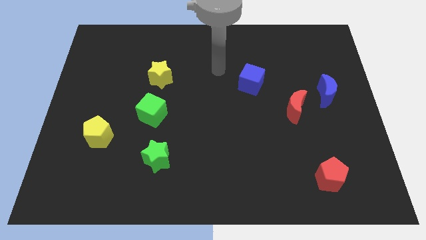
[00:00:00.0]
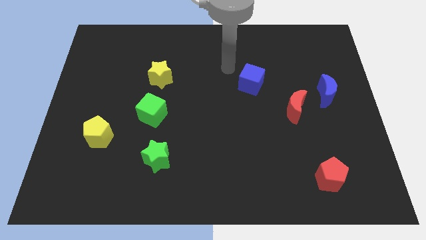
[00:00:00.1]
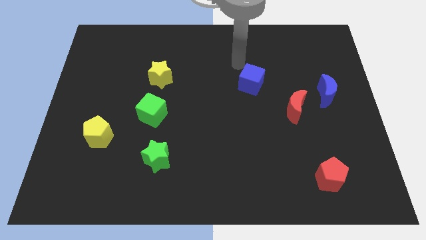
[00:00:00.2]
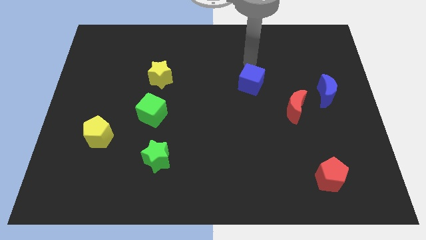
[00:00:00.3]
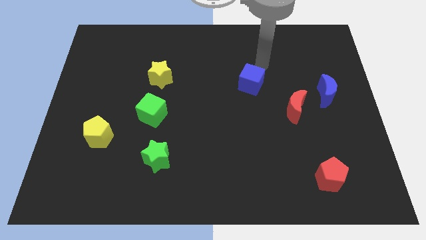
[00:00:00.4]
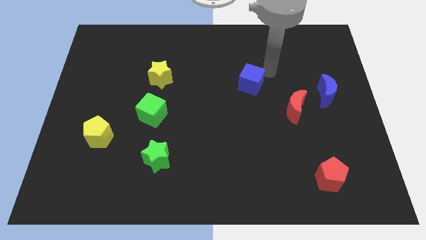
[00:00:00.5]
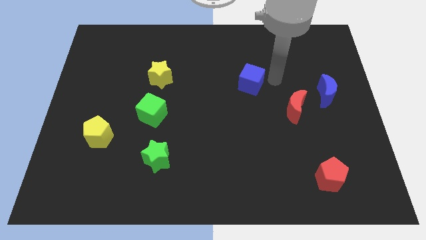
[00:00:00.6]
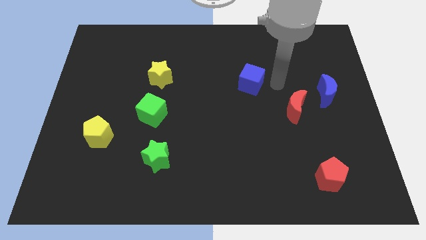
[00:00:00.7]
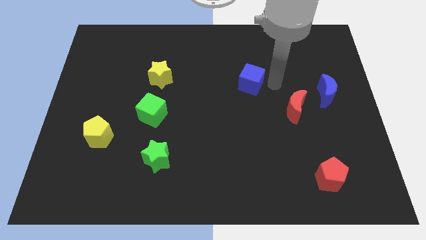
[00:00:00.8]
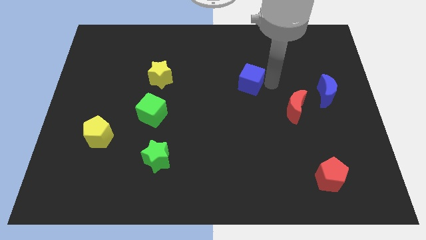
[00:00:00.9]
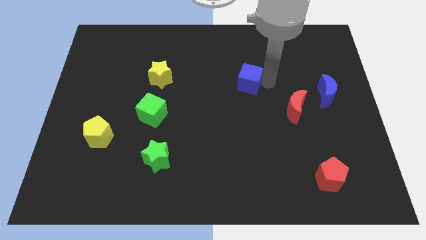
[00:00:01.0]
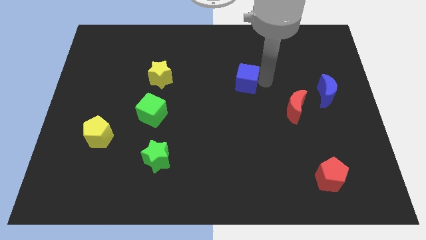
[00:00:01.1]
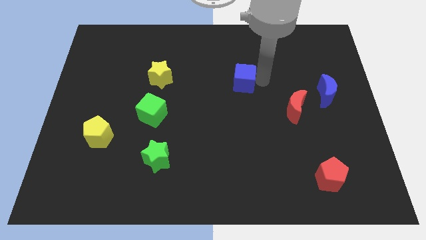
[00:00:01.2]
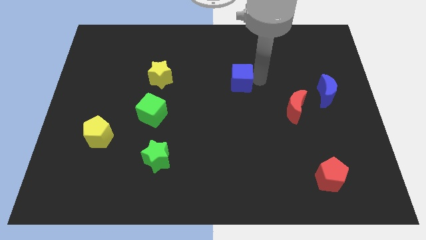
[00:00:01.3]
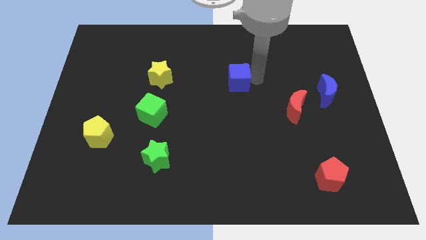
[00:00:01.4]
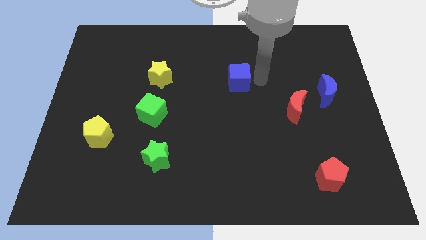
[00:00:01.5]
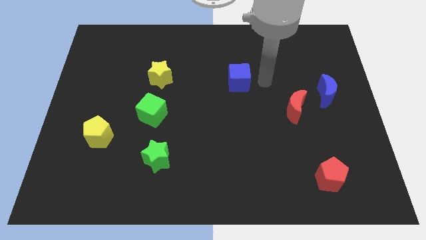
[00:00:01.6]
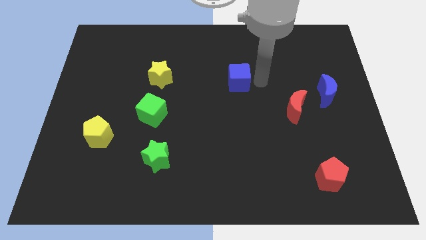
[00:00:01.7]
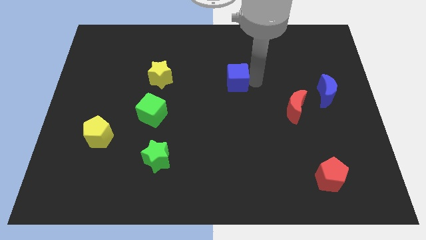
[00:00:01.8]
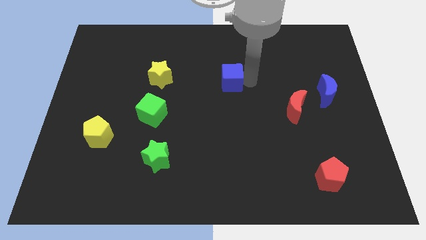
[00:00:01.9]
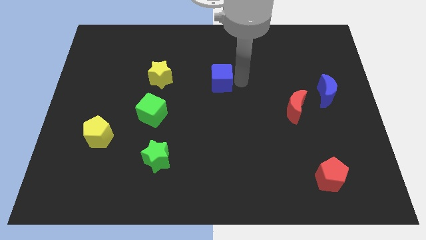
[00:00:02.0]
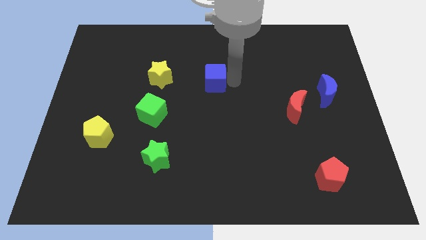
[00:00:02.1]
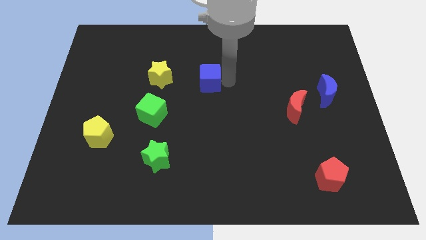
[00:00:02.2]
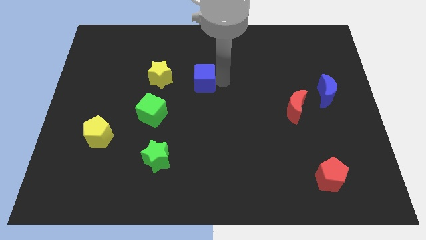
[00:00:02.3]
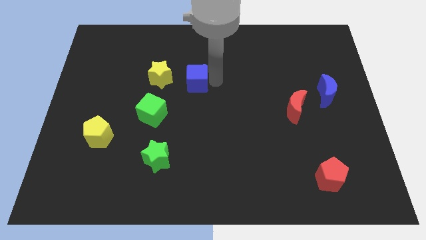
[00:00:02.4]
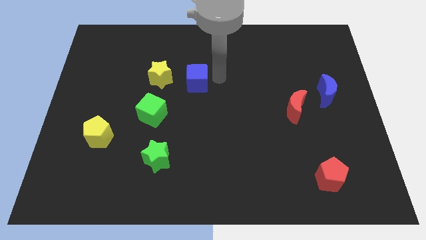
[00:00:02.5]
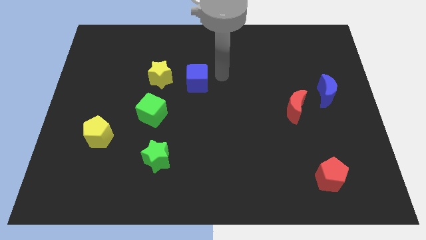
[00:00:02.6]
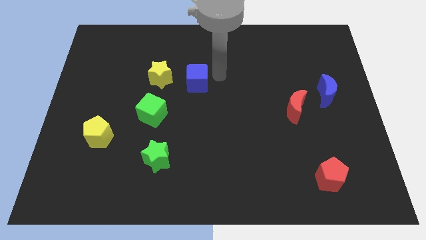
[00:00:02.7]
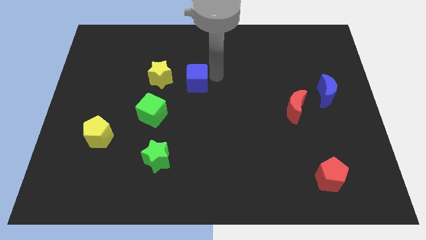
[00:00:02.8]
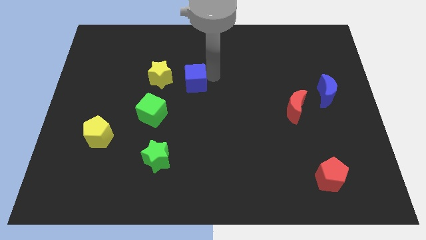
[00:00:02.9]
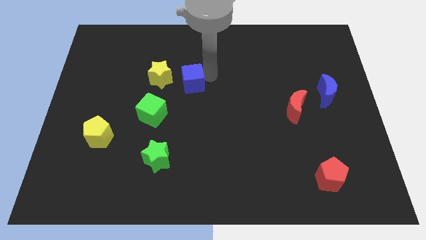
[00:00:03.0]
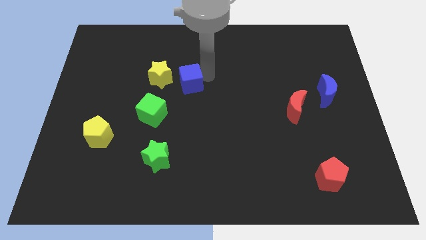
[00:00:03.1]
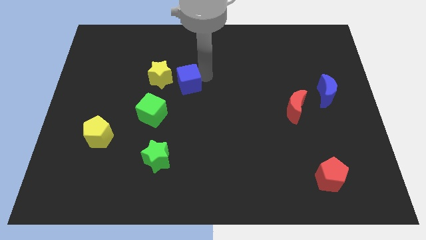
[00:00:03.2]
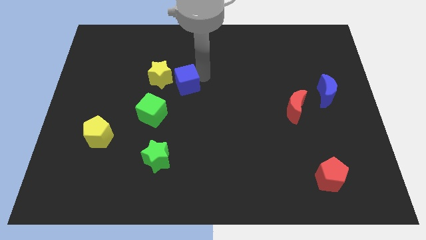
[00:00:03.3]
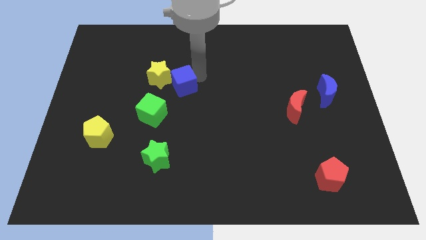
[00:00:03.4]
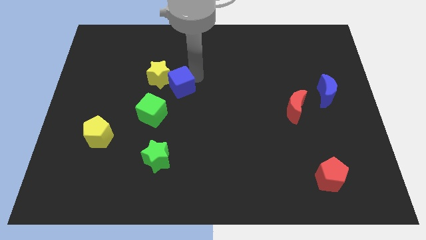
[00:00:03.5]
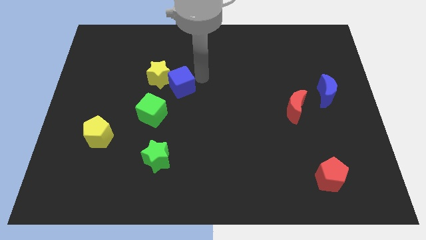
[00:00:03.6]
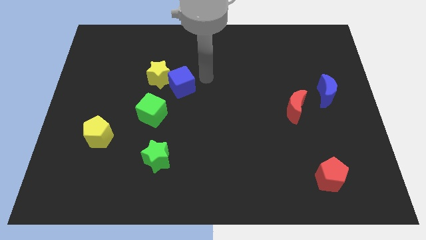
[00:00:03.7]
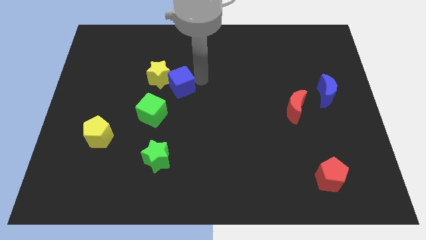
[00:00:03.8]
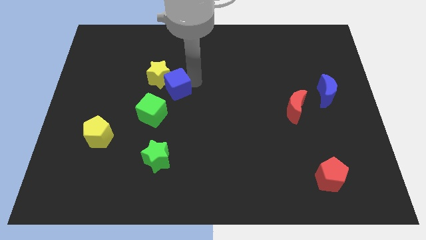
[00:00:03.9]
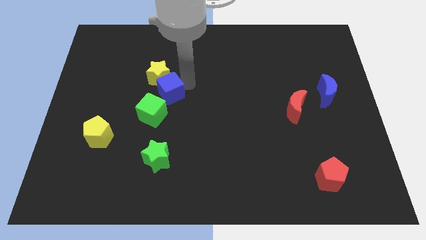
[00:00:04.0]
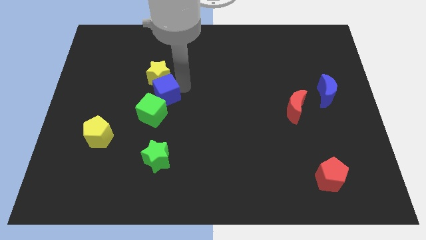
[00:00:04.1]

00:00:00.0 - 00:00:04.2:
push the blue cube to the left

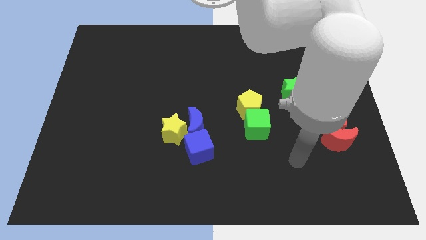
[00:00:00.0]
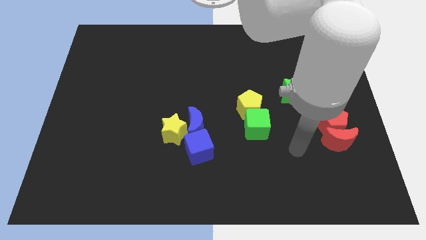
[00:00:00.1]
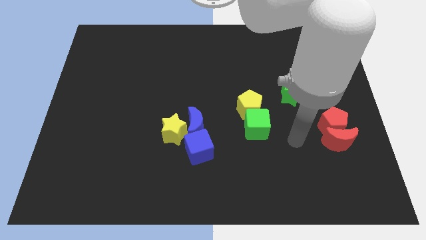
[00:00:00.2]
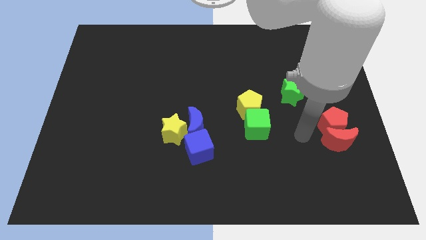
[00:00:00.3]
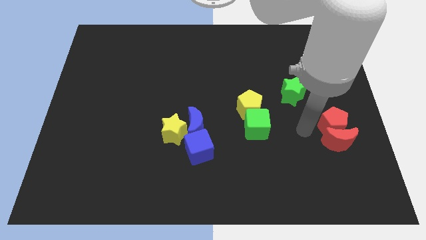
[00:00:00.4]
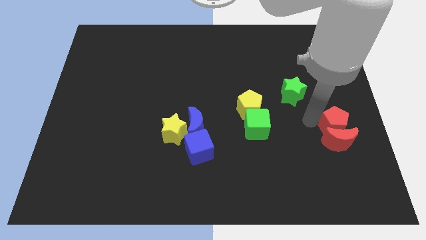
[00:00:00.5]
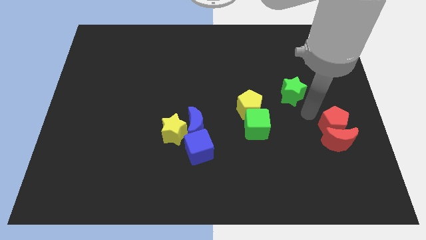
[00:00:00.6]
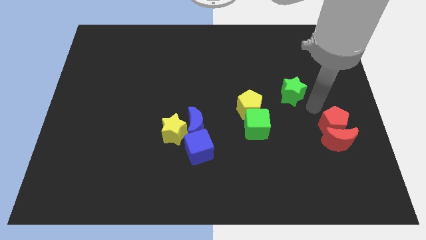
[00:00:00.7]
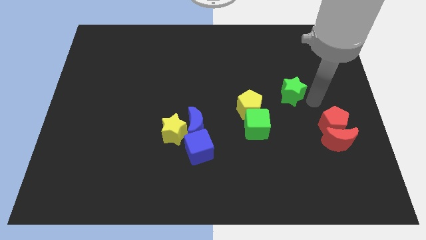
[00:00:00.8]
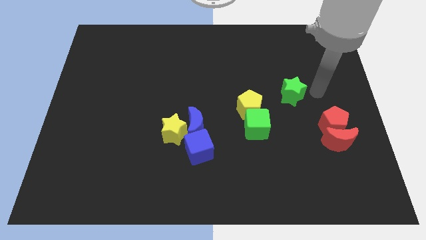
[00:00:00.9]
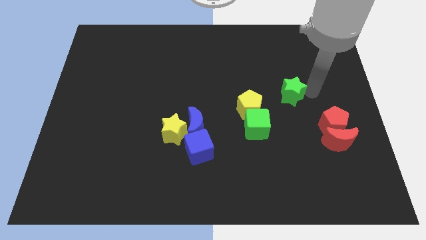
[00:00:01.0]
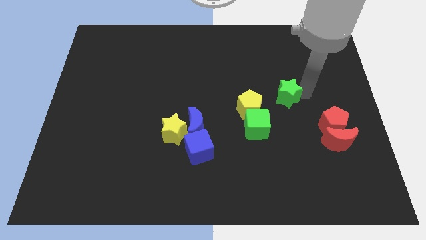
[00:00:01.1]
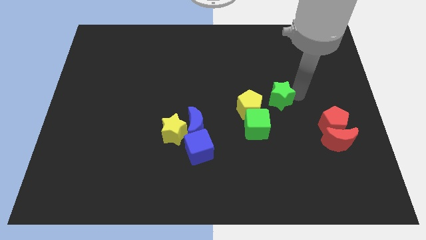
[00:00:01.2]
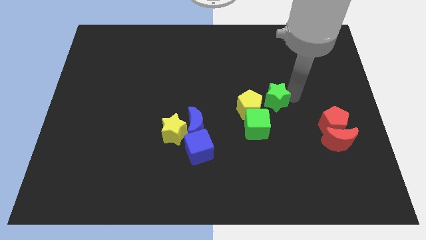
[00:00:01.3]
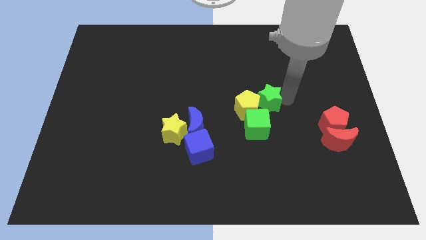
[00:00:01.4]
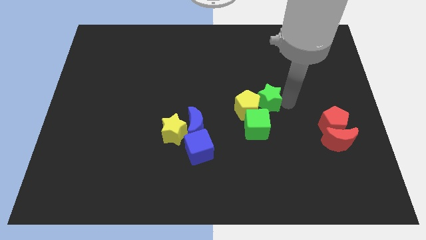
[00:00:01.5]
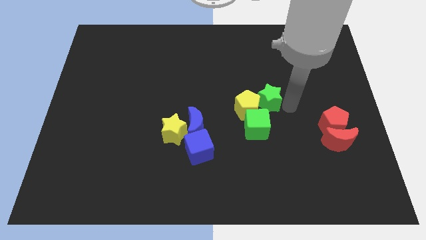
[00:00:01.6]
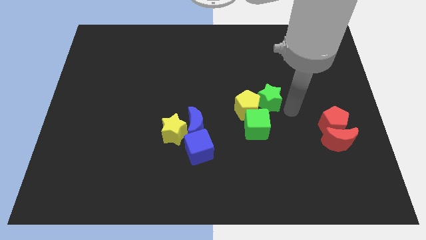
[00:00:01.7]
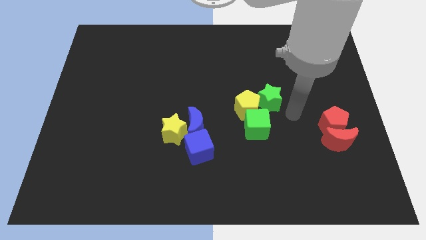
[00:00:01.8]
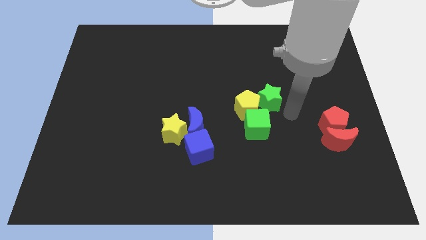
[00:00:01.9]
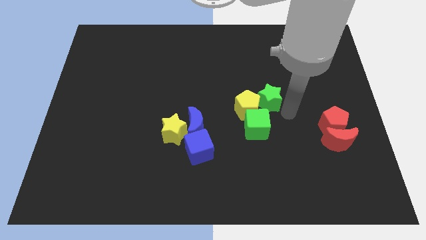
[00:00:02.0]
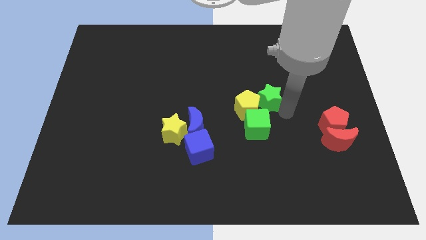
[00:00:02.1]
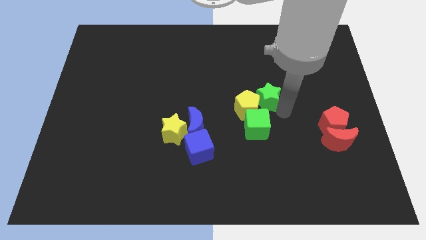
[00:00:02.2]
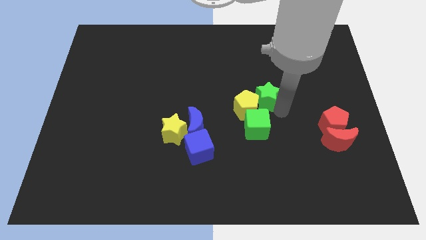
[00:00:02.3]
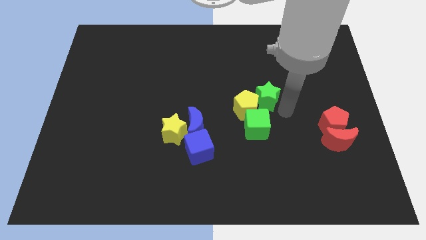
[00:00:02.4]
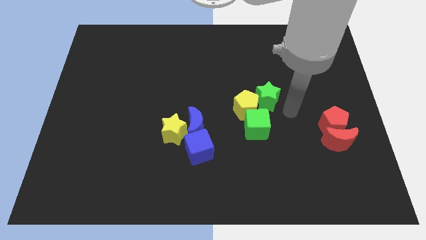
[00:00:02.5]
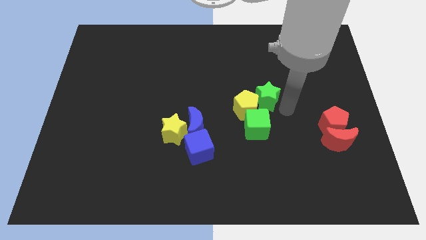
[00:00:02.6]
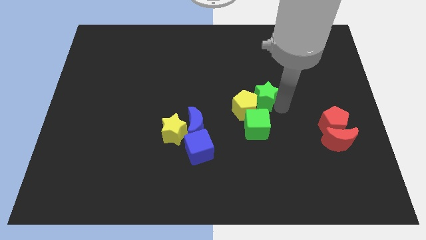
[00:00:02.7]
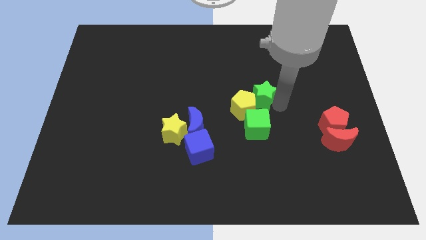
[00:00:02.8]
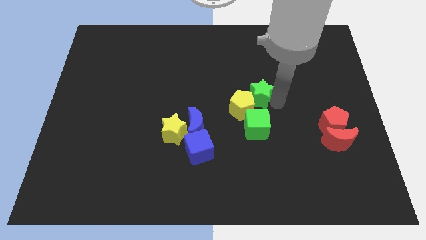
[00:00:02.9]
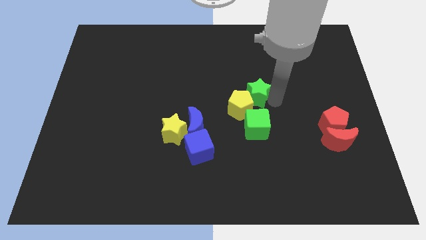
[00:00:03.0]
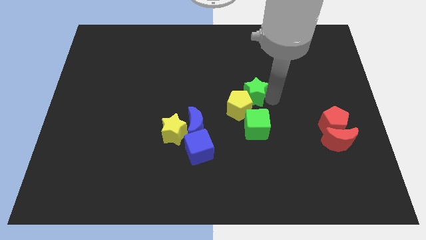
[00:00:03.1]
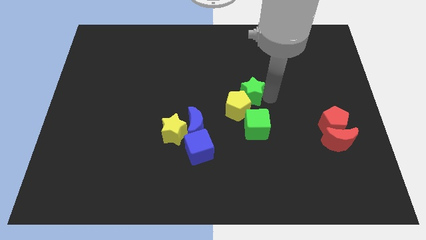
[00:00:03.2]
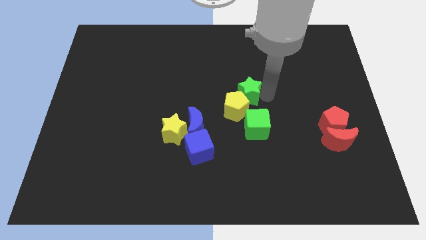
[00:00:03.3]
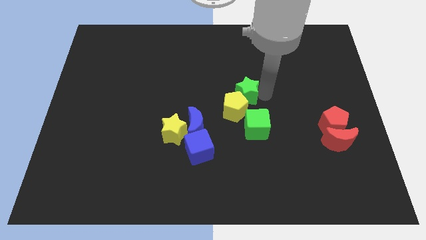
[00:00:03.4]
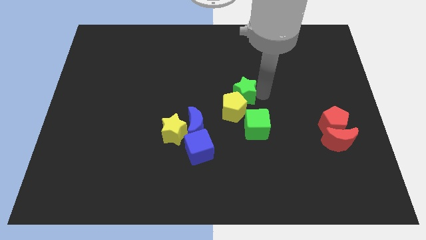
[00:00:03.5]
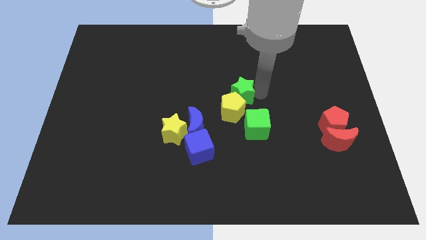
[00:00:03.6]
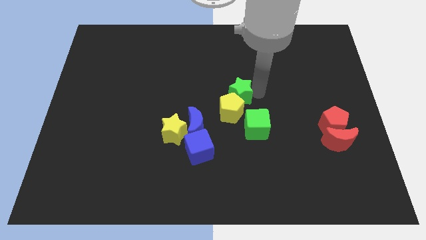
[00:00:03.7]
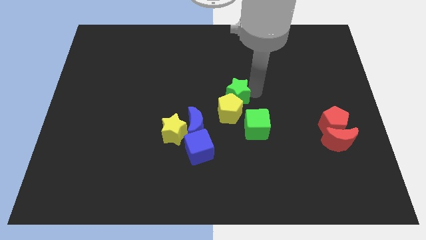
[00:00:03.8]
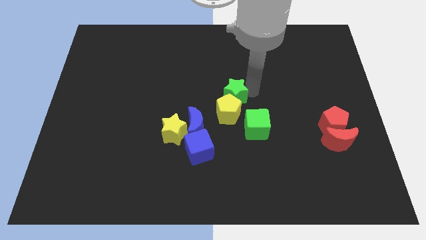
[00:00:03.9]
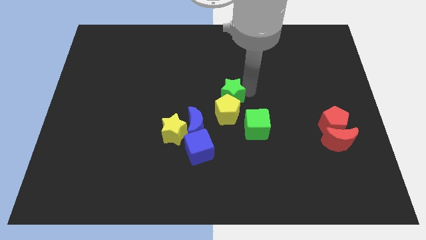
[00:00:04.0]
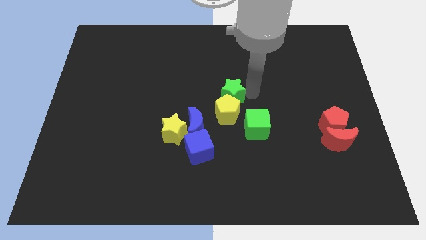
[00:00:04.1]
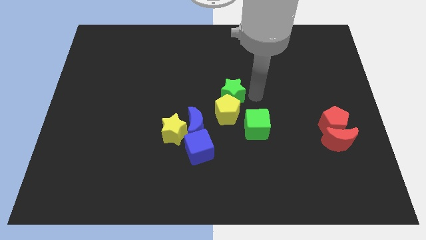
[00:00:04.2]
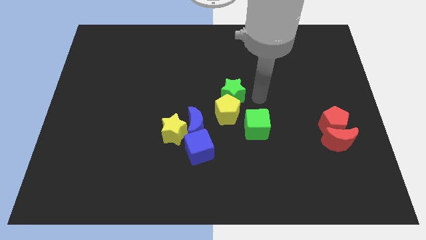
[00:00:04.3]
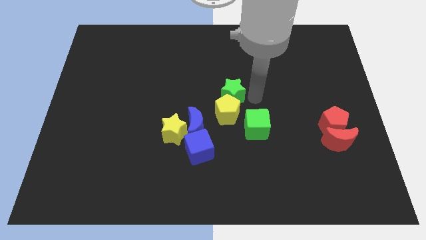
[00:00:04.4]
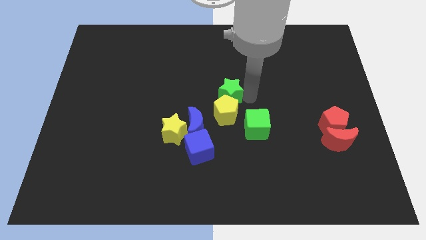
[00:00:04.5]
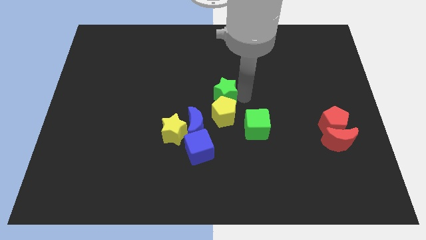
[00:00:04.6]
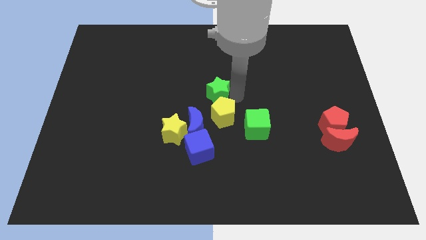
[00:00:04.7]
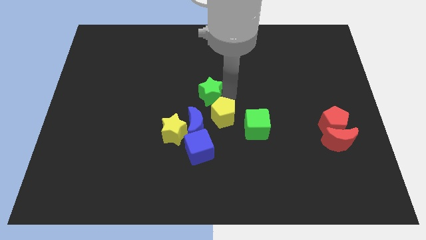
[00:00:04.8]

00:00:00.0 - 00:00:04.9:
push the green star to the left
